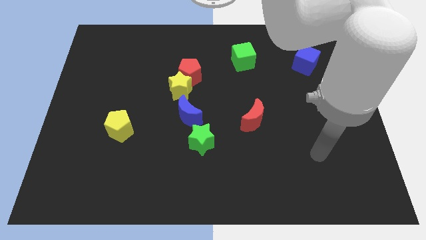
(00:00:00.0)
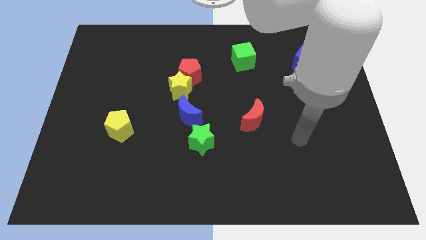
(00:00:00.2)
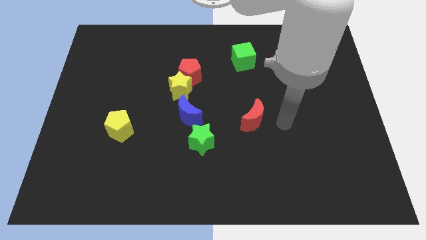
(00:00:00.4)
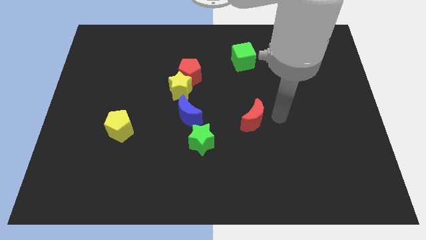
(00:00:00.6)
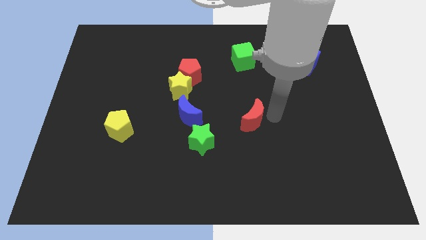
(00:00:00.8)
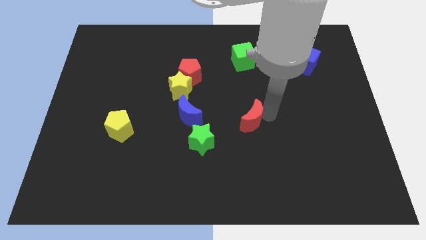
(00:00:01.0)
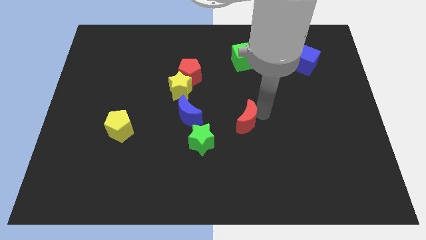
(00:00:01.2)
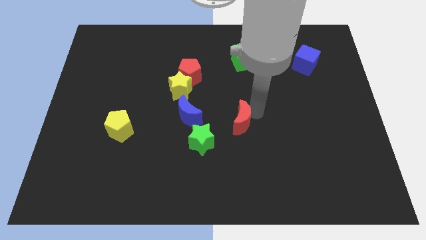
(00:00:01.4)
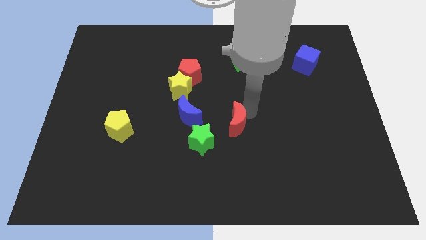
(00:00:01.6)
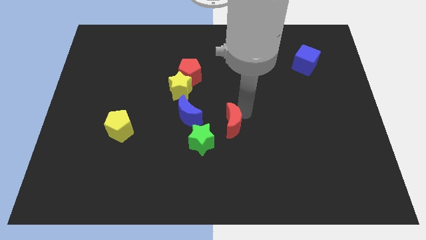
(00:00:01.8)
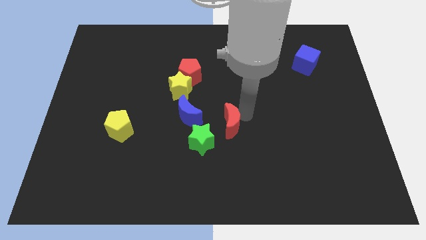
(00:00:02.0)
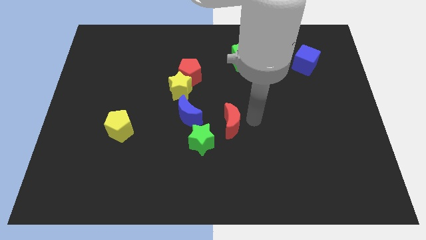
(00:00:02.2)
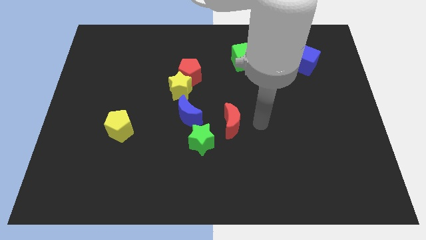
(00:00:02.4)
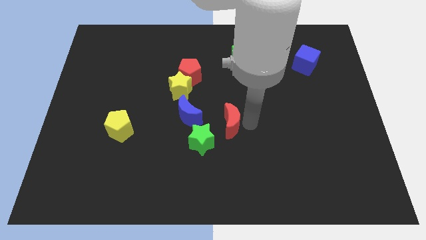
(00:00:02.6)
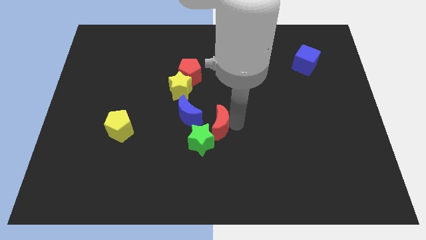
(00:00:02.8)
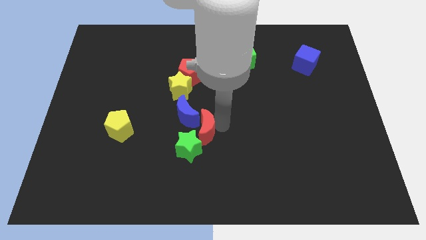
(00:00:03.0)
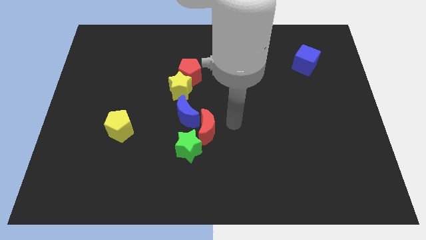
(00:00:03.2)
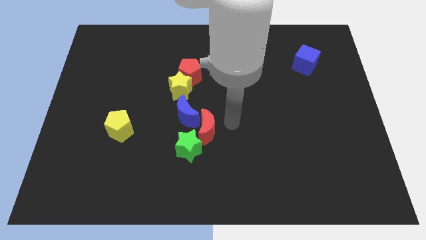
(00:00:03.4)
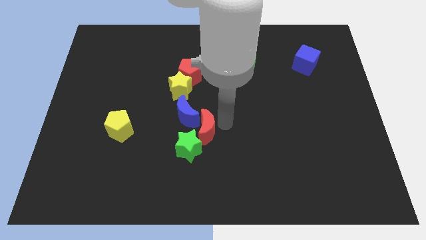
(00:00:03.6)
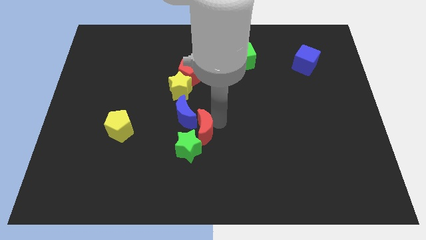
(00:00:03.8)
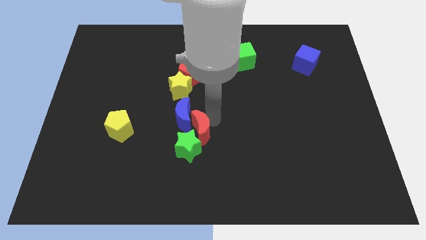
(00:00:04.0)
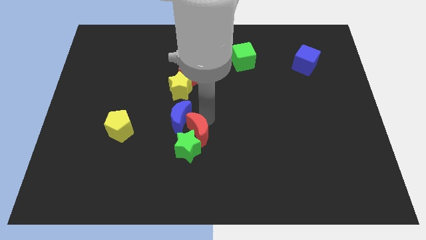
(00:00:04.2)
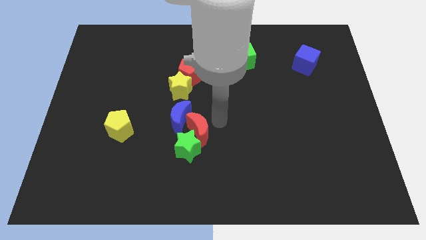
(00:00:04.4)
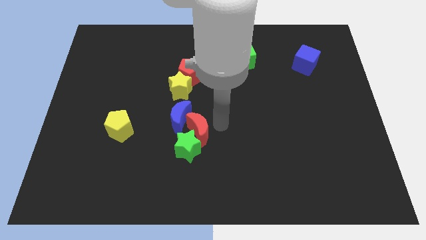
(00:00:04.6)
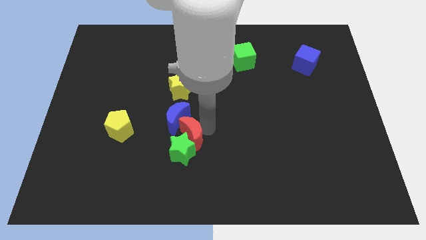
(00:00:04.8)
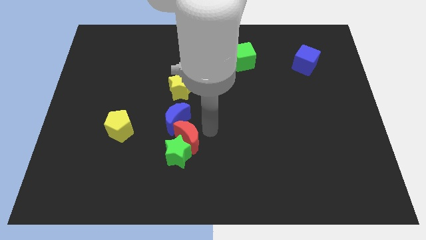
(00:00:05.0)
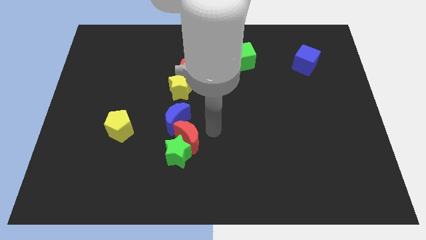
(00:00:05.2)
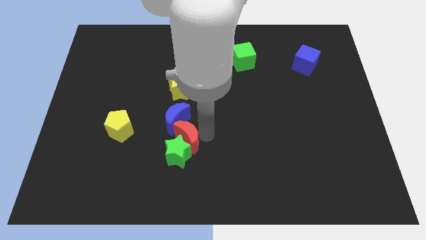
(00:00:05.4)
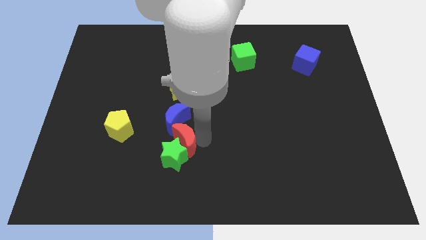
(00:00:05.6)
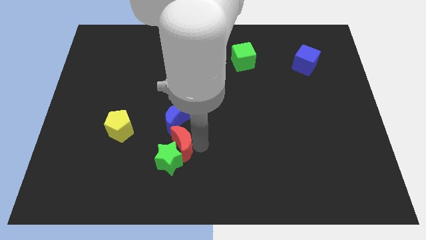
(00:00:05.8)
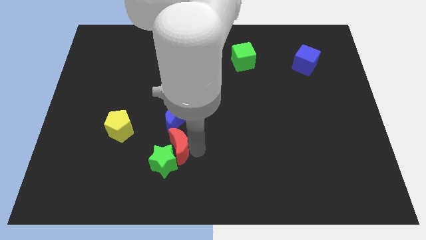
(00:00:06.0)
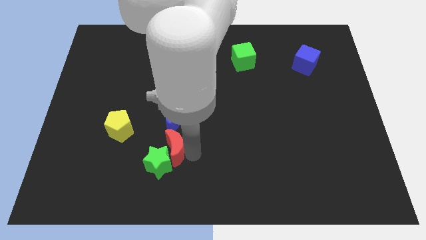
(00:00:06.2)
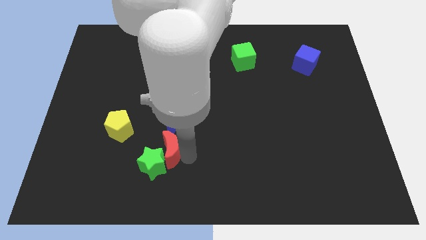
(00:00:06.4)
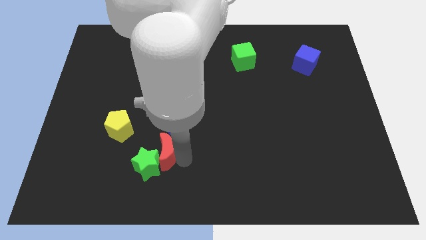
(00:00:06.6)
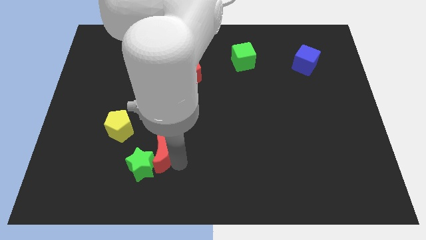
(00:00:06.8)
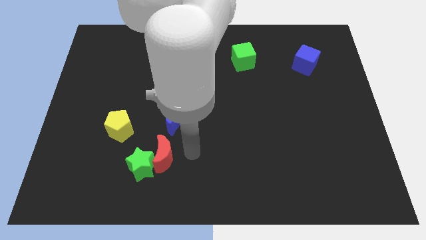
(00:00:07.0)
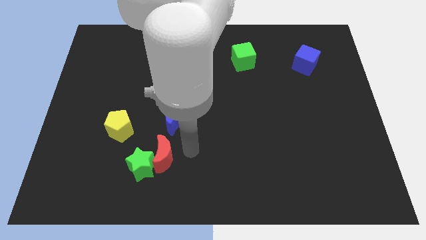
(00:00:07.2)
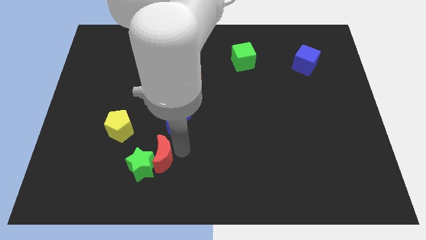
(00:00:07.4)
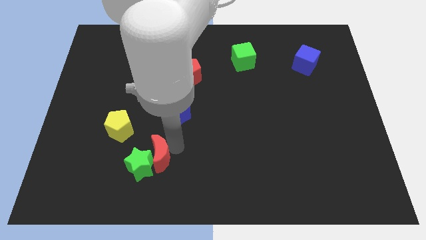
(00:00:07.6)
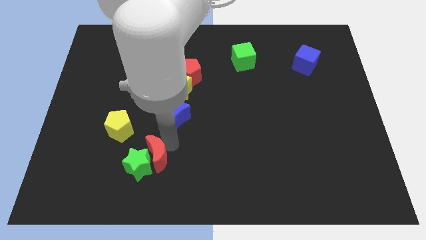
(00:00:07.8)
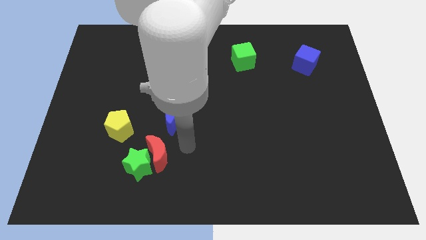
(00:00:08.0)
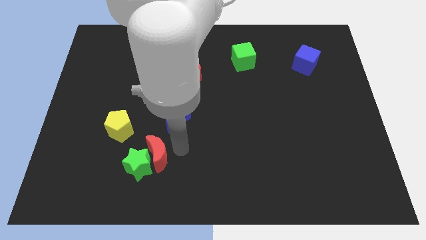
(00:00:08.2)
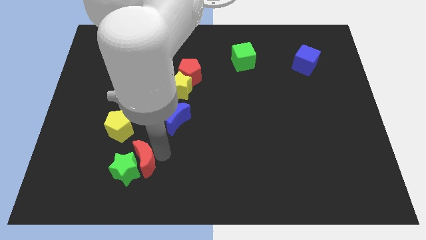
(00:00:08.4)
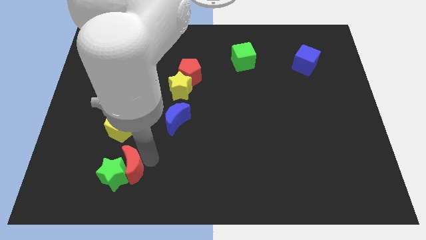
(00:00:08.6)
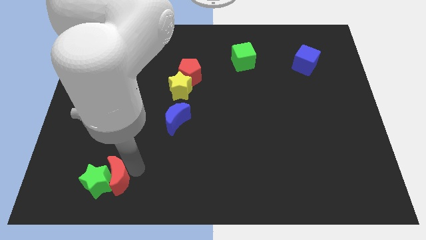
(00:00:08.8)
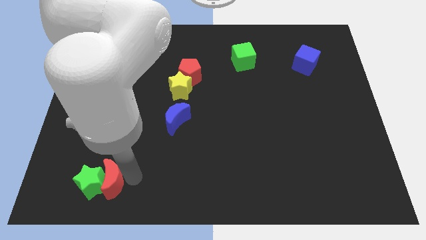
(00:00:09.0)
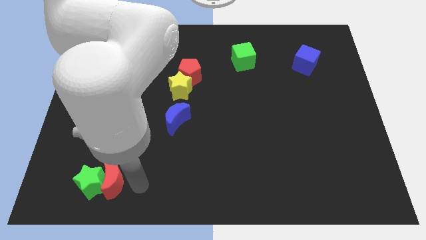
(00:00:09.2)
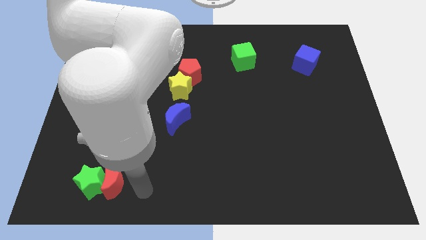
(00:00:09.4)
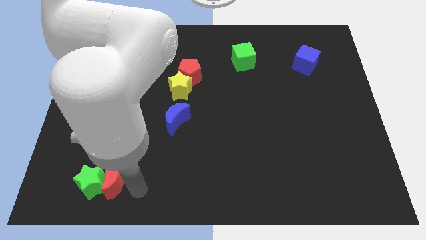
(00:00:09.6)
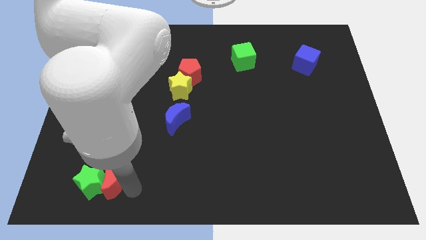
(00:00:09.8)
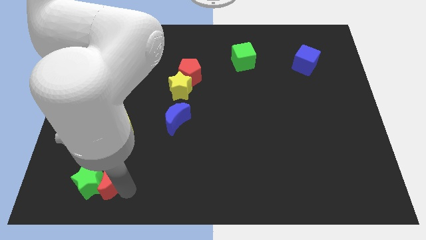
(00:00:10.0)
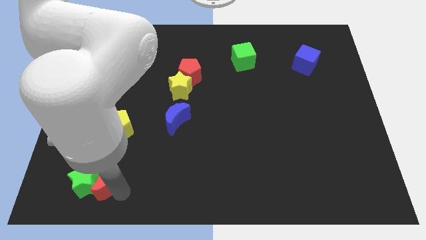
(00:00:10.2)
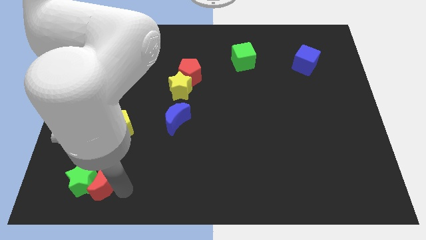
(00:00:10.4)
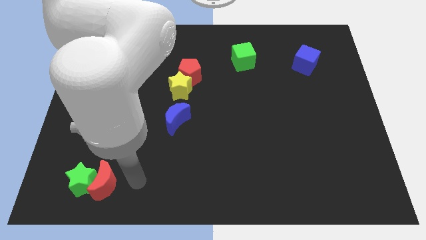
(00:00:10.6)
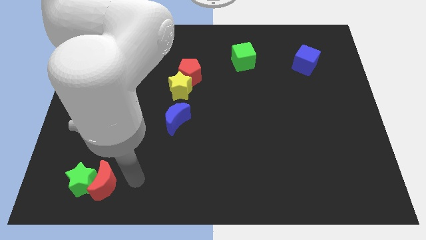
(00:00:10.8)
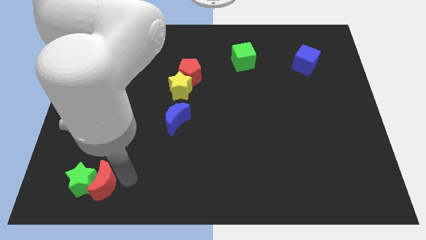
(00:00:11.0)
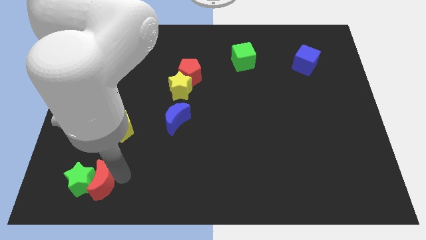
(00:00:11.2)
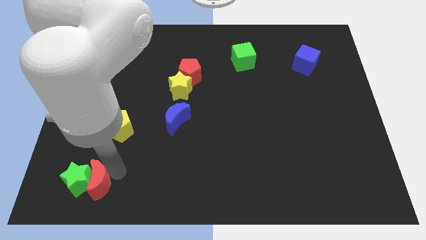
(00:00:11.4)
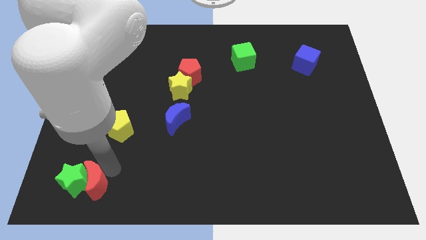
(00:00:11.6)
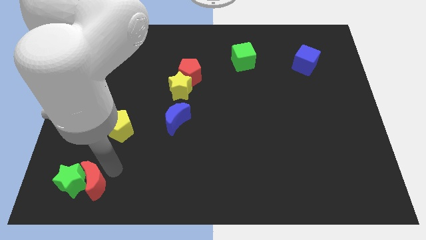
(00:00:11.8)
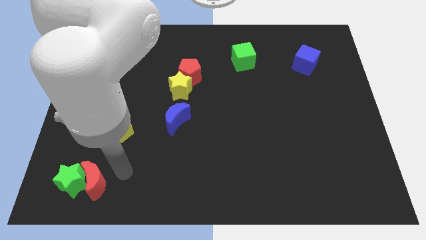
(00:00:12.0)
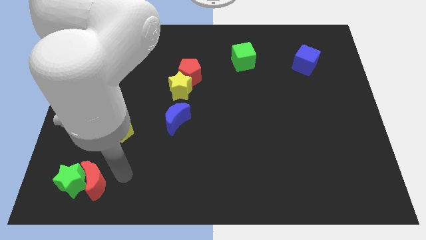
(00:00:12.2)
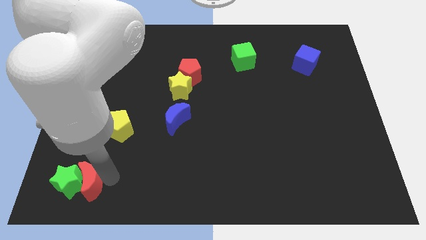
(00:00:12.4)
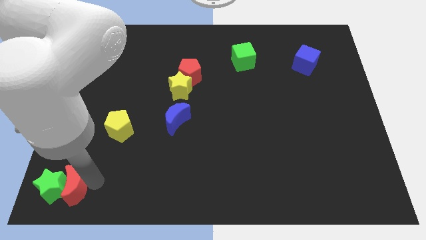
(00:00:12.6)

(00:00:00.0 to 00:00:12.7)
push the red moon to the bottom left

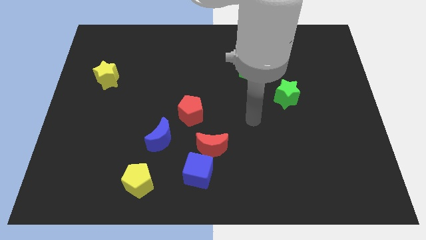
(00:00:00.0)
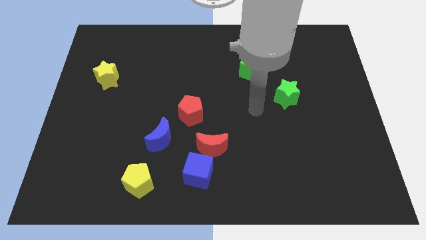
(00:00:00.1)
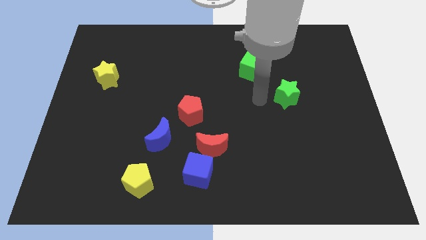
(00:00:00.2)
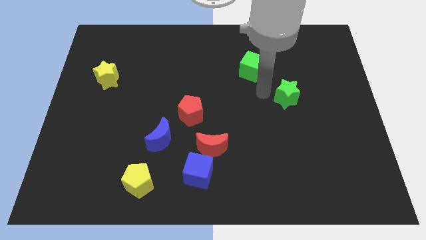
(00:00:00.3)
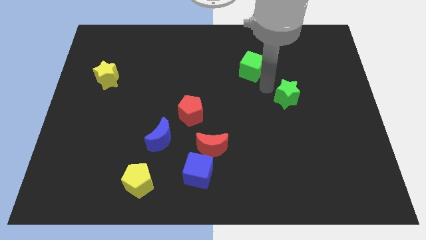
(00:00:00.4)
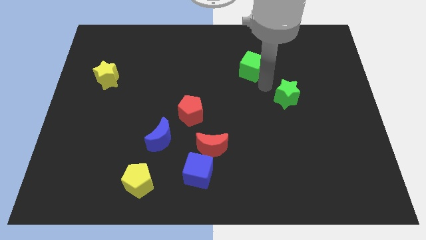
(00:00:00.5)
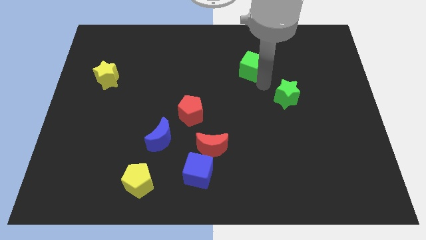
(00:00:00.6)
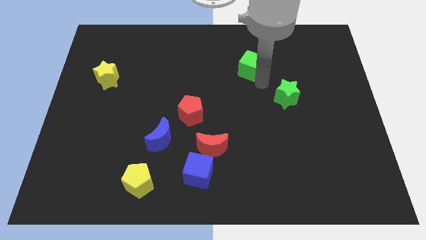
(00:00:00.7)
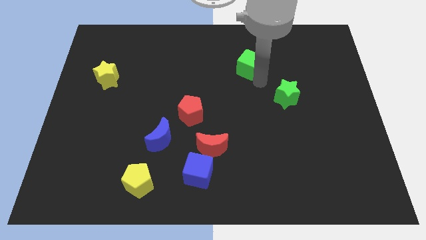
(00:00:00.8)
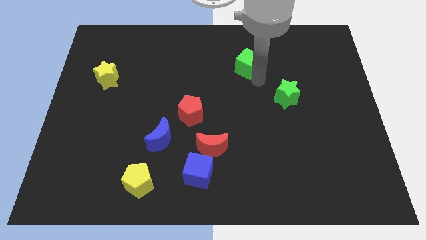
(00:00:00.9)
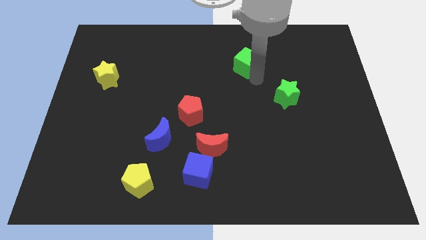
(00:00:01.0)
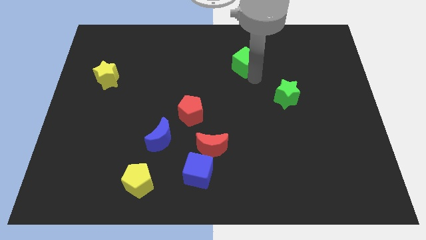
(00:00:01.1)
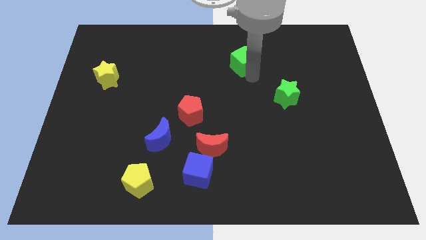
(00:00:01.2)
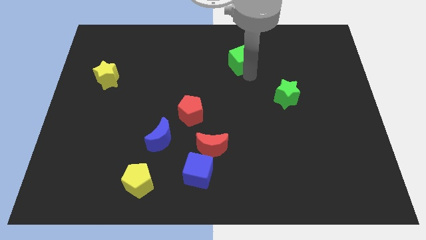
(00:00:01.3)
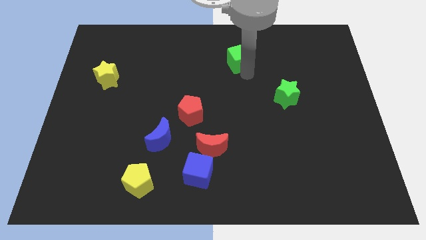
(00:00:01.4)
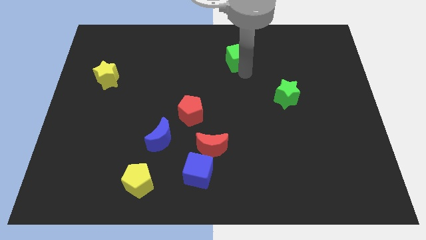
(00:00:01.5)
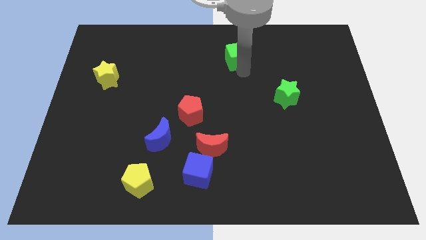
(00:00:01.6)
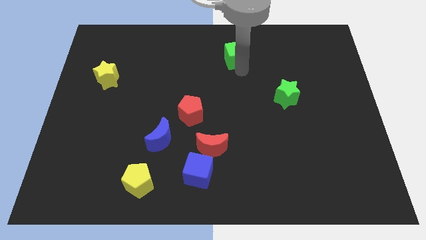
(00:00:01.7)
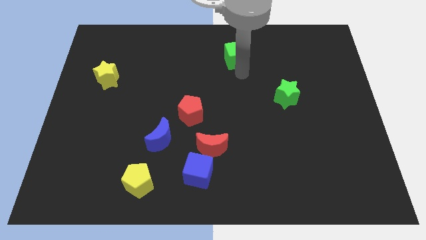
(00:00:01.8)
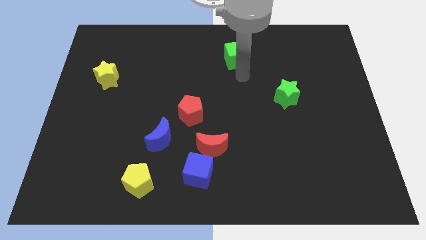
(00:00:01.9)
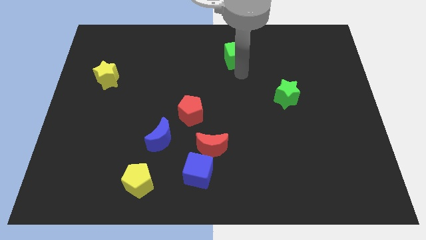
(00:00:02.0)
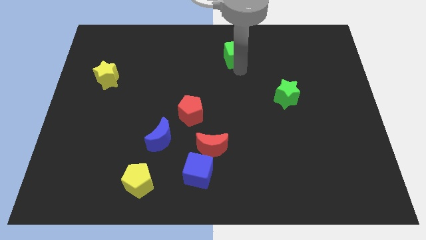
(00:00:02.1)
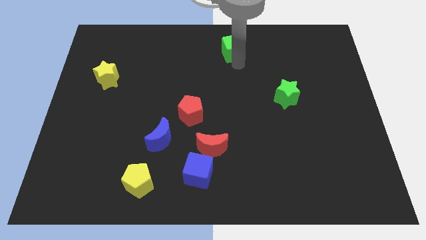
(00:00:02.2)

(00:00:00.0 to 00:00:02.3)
put the green cube to the towards your base
